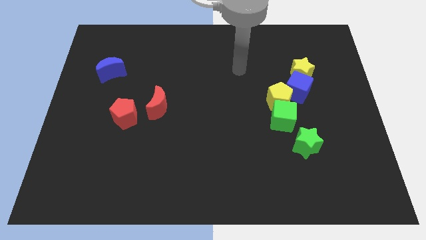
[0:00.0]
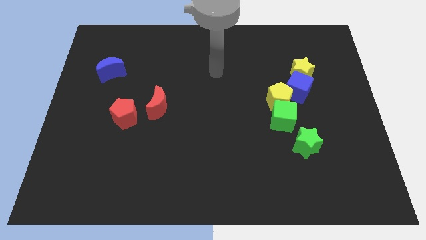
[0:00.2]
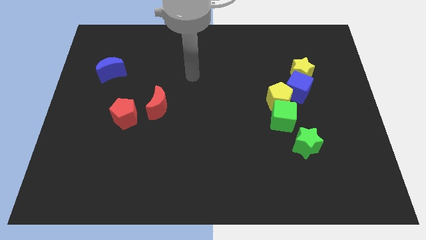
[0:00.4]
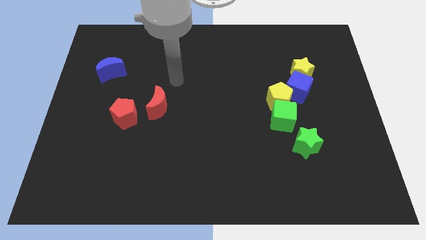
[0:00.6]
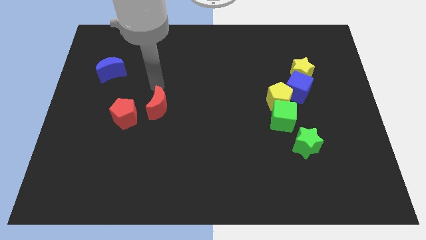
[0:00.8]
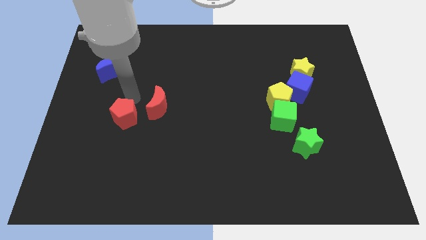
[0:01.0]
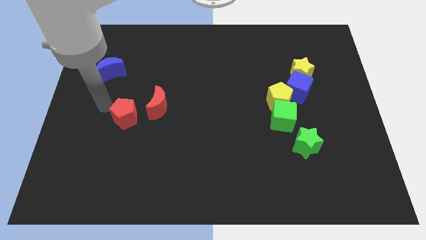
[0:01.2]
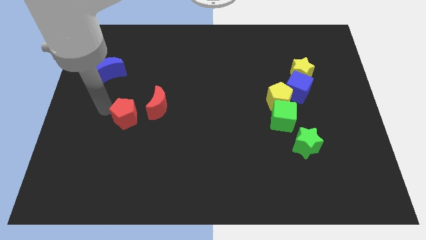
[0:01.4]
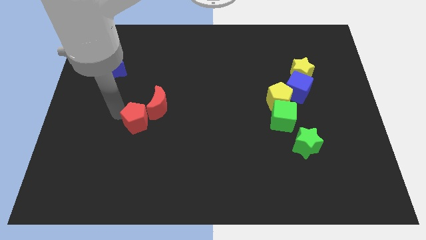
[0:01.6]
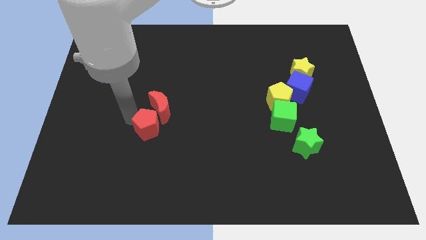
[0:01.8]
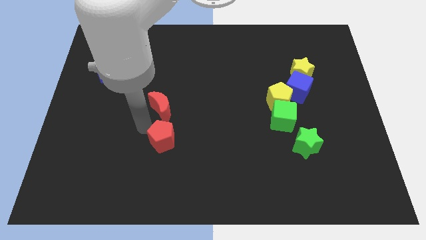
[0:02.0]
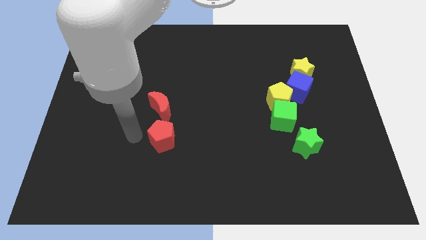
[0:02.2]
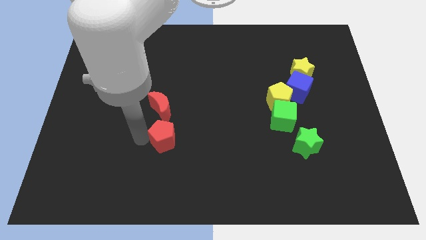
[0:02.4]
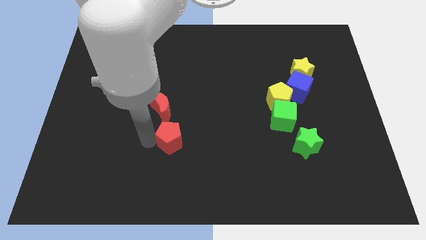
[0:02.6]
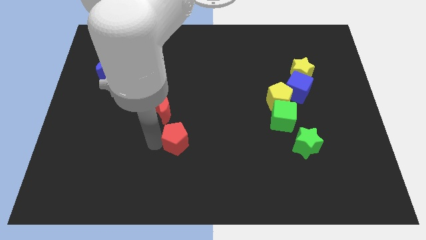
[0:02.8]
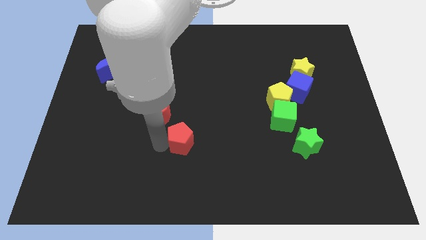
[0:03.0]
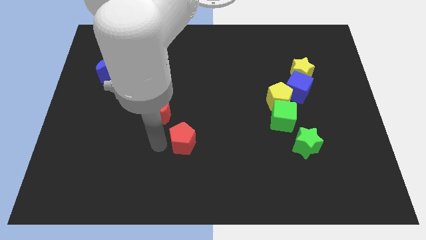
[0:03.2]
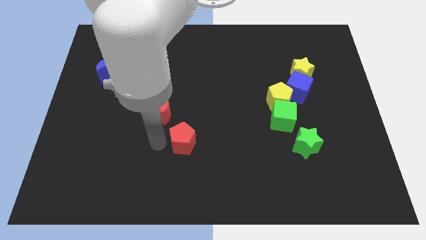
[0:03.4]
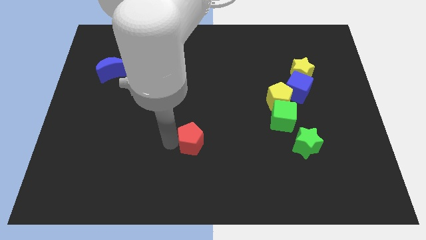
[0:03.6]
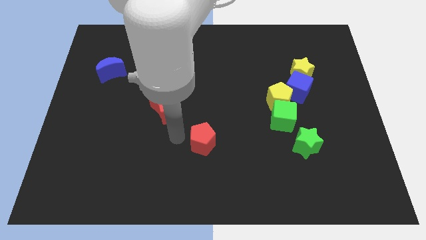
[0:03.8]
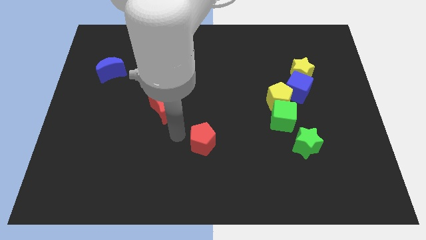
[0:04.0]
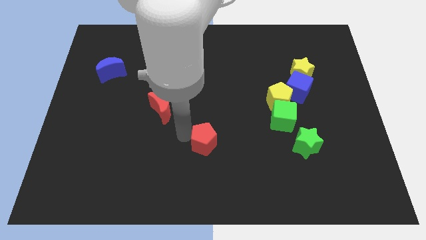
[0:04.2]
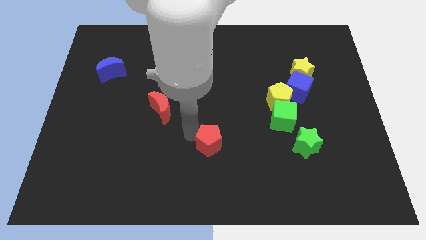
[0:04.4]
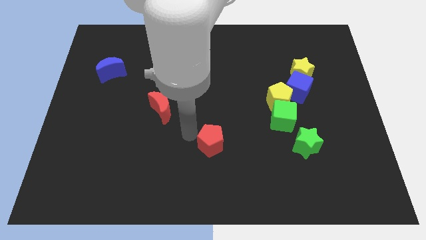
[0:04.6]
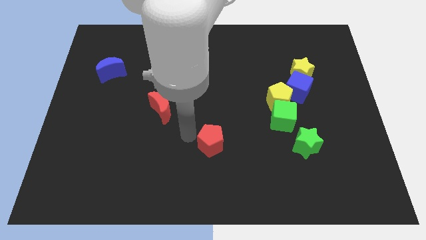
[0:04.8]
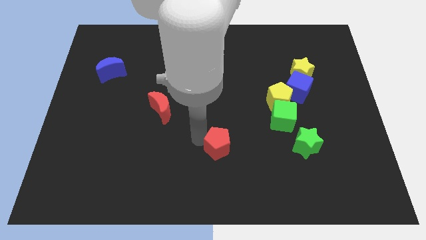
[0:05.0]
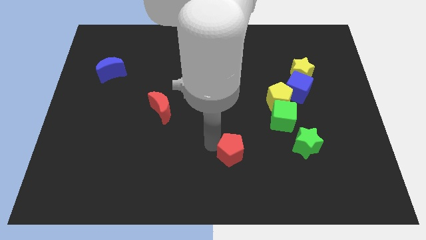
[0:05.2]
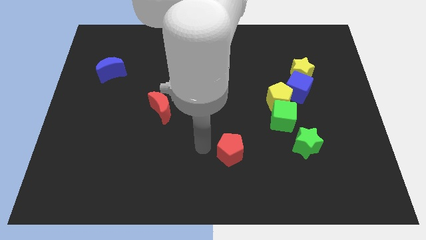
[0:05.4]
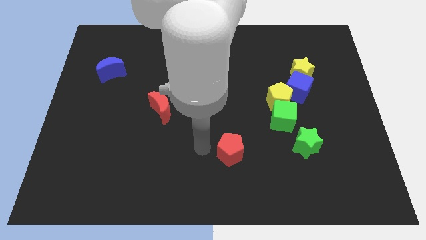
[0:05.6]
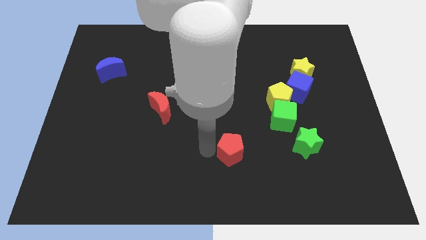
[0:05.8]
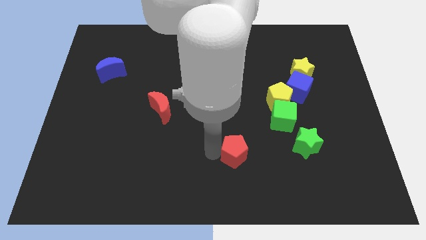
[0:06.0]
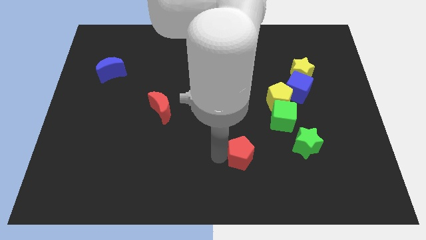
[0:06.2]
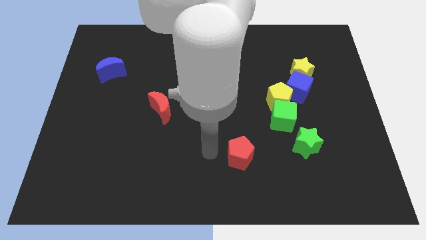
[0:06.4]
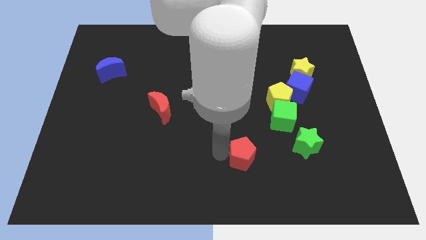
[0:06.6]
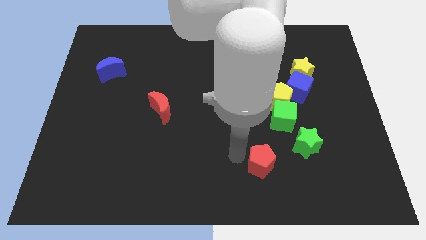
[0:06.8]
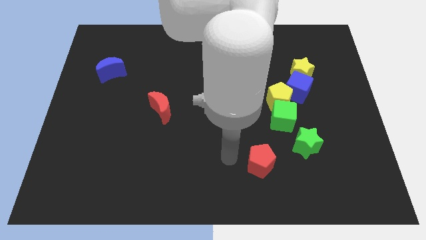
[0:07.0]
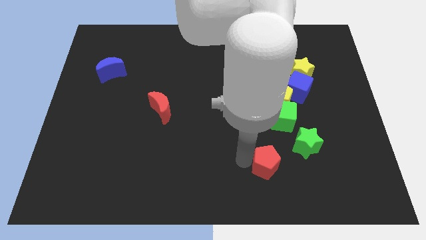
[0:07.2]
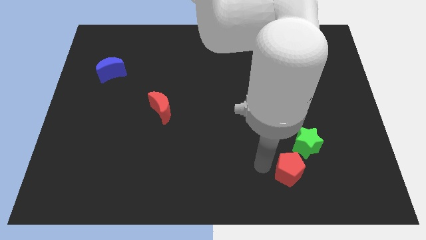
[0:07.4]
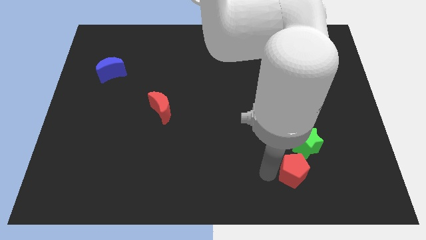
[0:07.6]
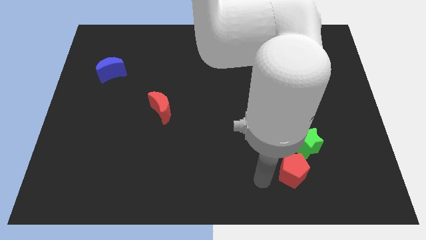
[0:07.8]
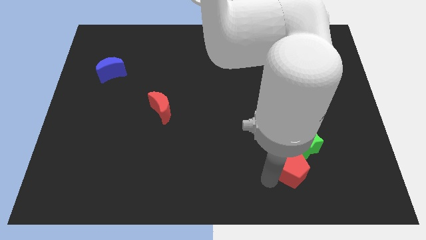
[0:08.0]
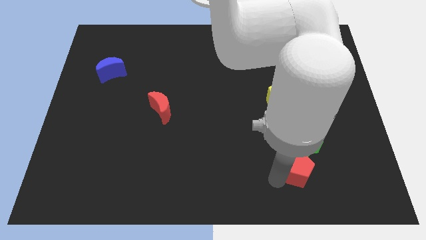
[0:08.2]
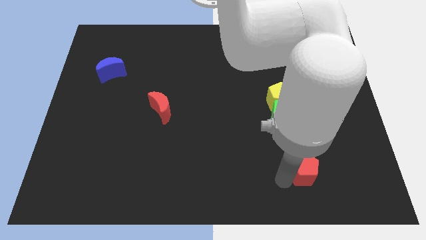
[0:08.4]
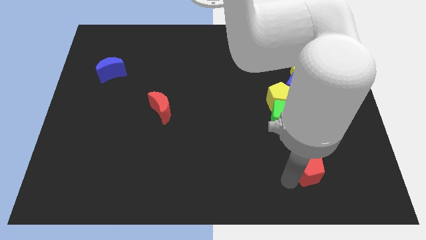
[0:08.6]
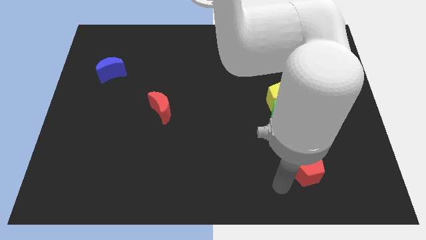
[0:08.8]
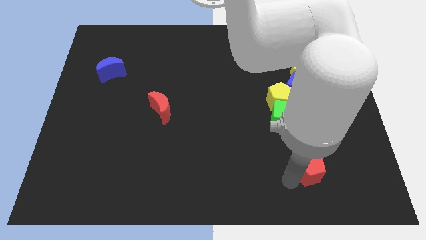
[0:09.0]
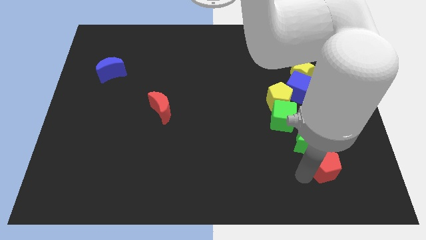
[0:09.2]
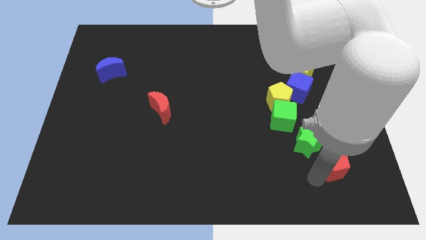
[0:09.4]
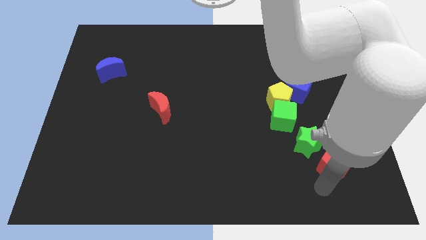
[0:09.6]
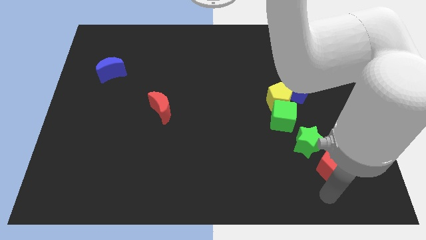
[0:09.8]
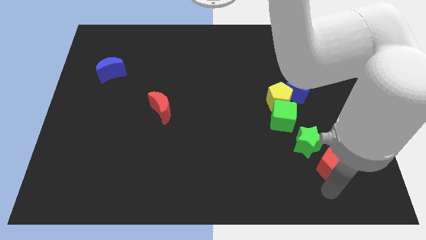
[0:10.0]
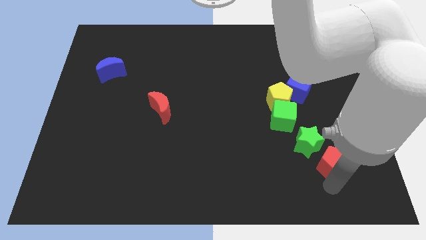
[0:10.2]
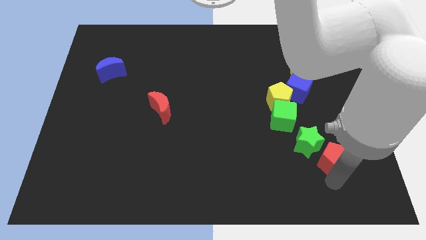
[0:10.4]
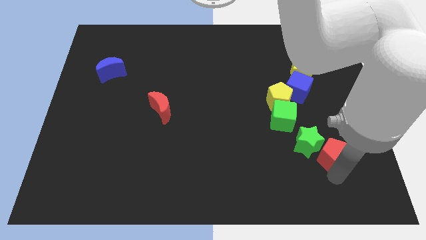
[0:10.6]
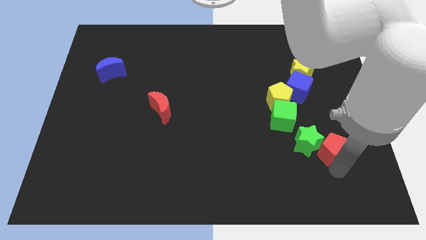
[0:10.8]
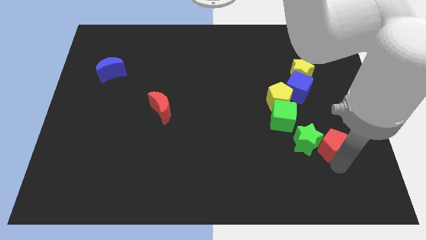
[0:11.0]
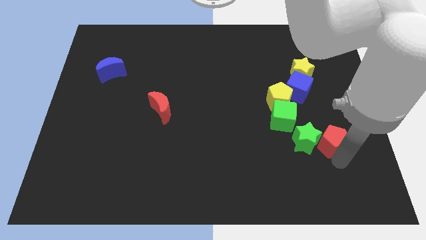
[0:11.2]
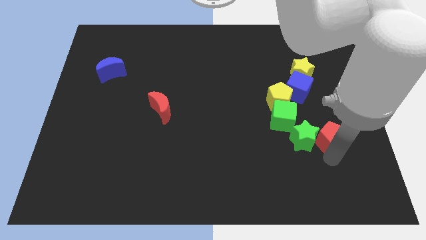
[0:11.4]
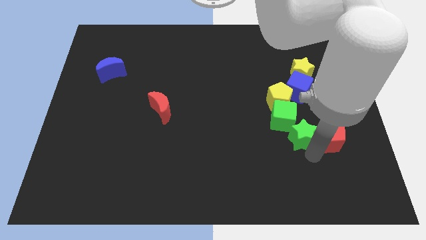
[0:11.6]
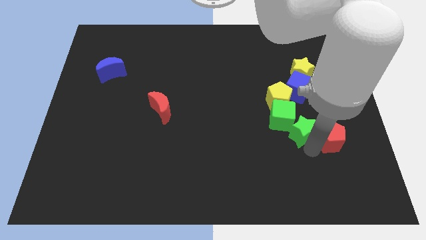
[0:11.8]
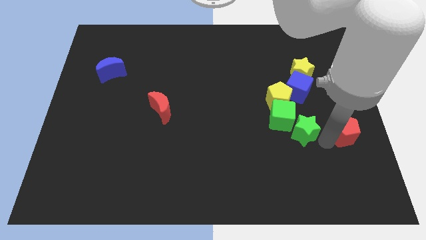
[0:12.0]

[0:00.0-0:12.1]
slide the red pentagon to the right side
